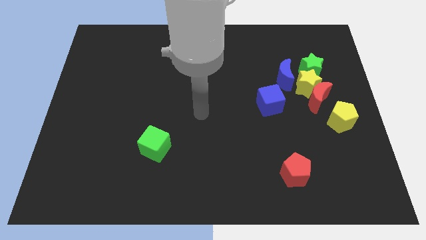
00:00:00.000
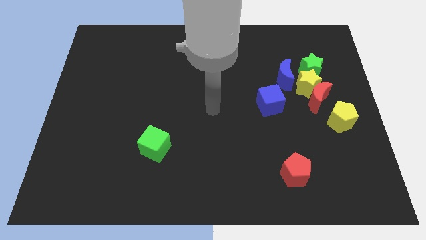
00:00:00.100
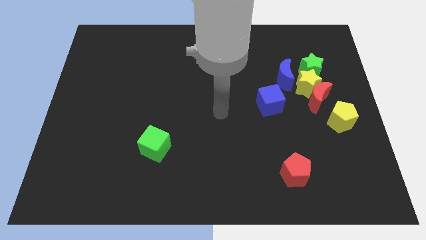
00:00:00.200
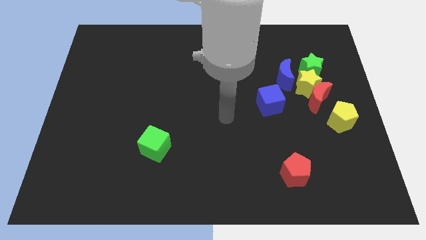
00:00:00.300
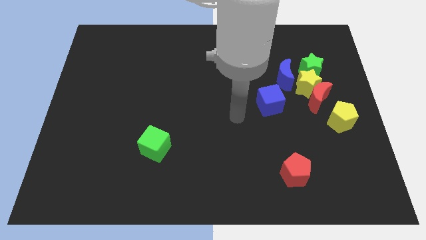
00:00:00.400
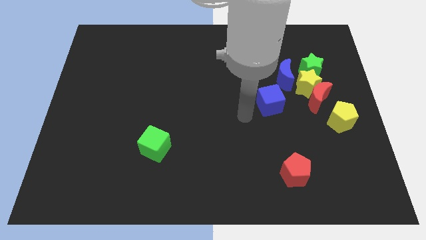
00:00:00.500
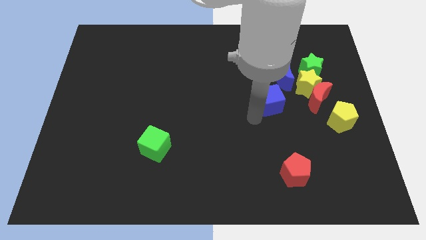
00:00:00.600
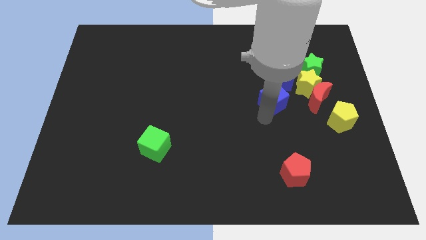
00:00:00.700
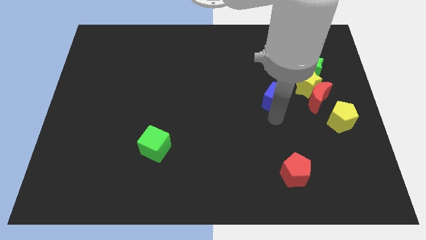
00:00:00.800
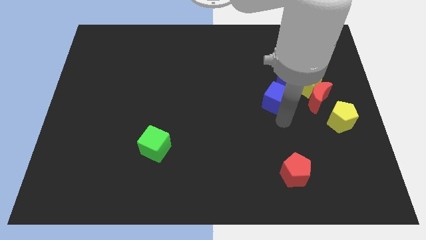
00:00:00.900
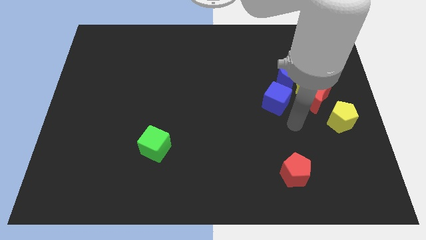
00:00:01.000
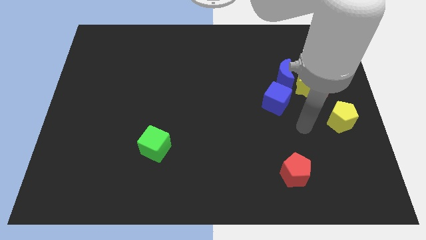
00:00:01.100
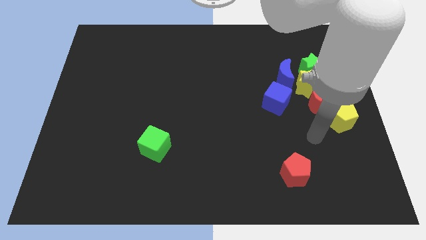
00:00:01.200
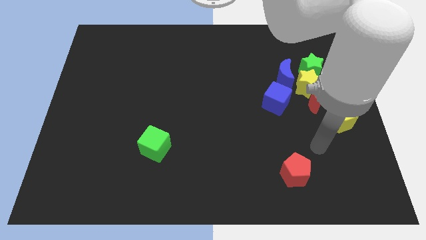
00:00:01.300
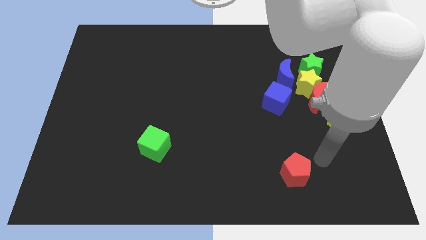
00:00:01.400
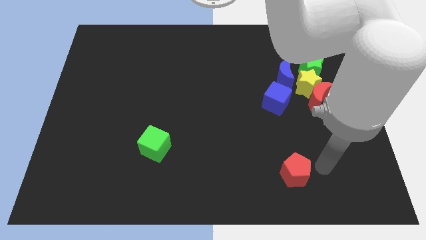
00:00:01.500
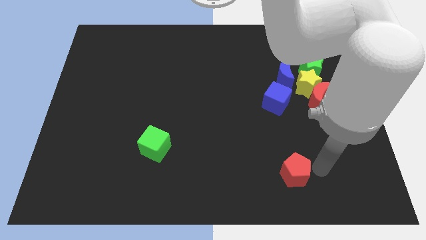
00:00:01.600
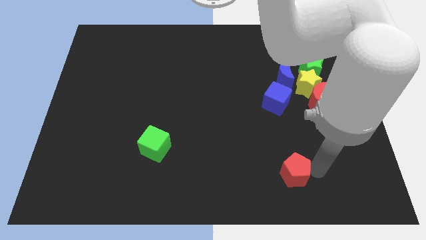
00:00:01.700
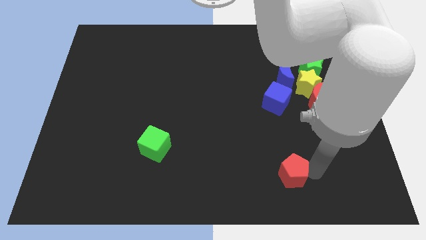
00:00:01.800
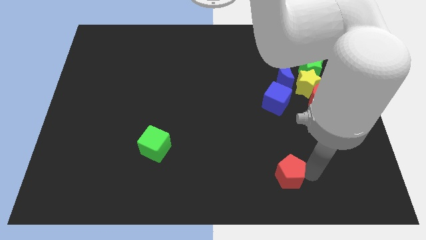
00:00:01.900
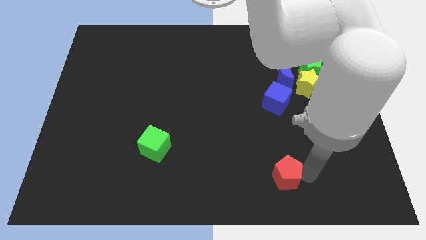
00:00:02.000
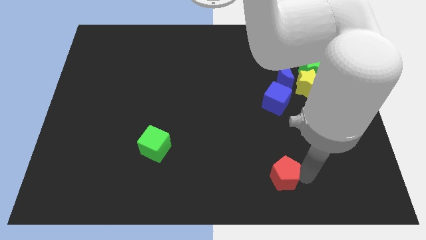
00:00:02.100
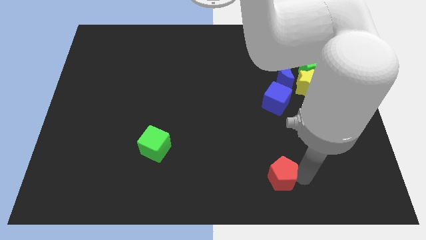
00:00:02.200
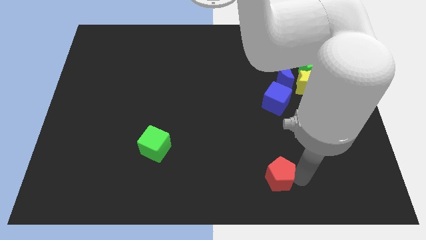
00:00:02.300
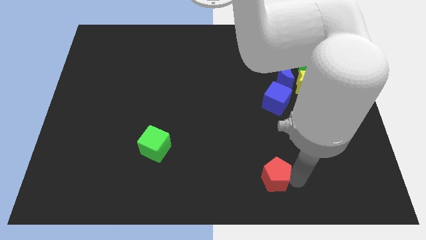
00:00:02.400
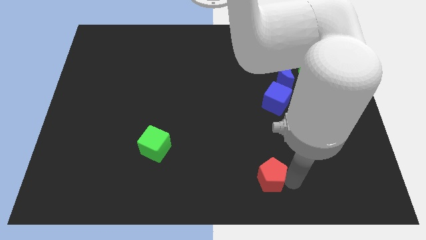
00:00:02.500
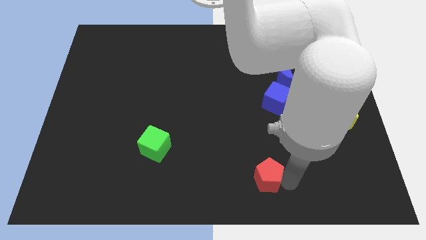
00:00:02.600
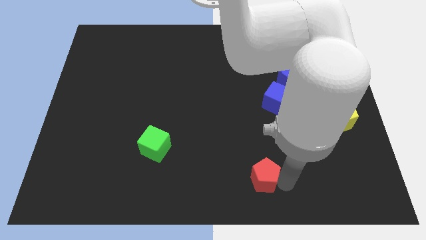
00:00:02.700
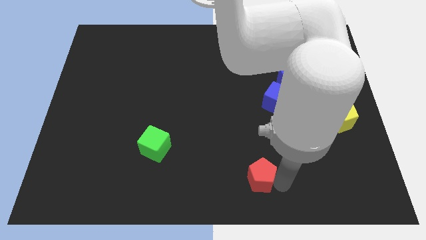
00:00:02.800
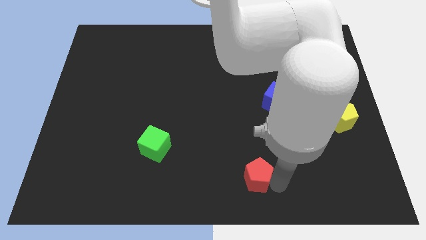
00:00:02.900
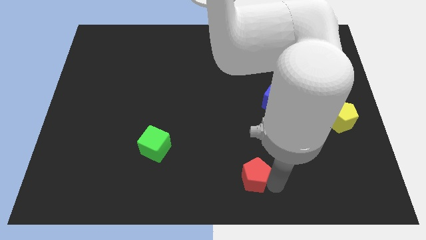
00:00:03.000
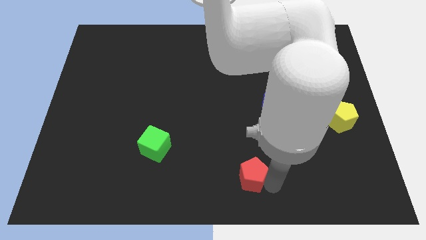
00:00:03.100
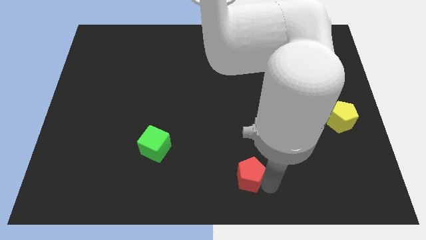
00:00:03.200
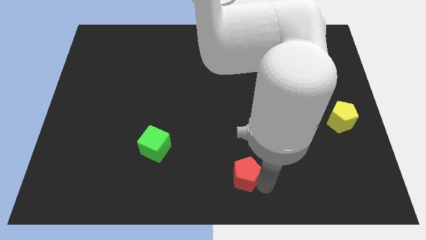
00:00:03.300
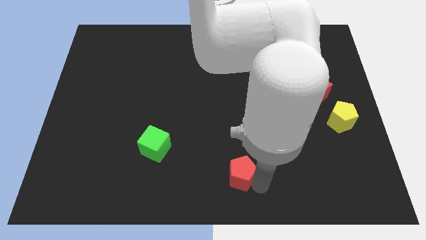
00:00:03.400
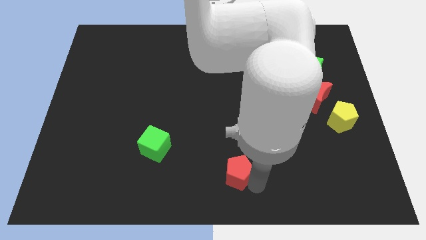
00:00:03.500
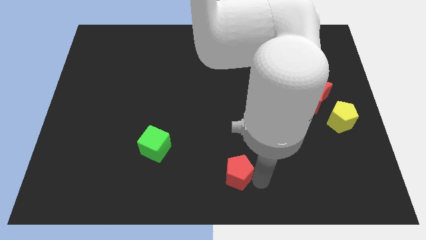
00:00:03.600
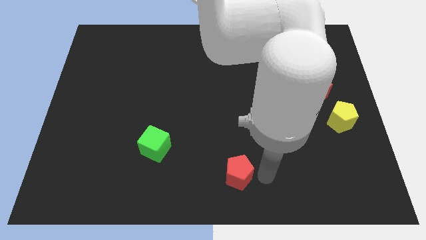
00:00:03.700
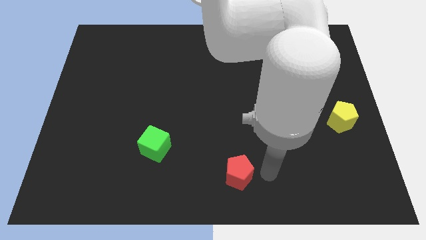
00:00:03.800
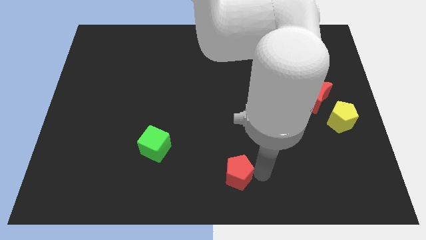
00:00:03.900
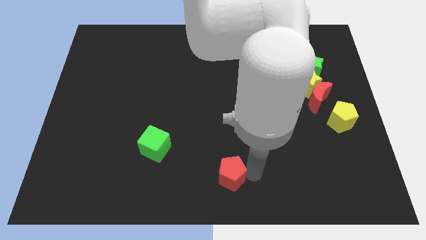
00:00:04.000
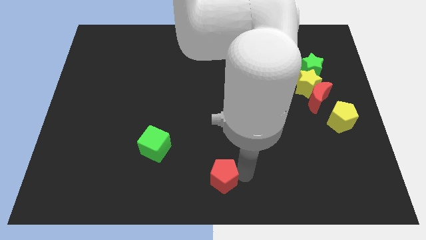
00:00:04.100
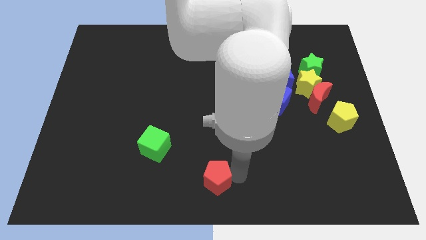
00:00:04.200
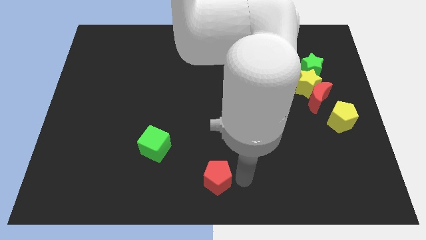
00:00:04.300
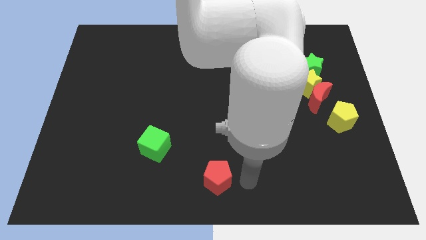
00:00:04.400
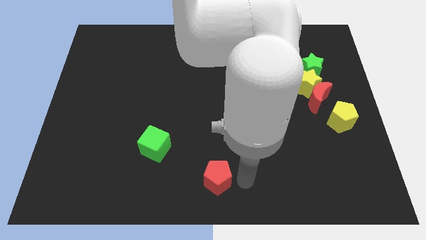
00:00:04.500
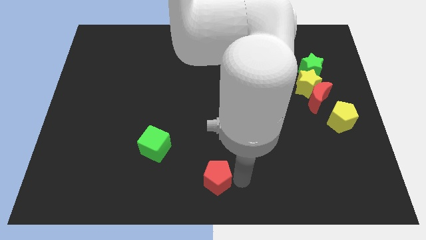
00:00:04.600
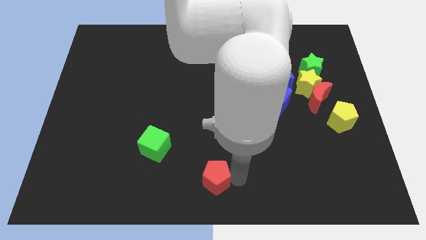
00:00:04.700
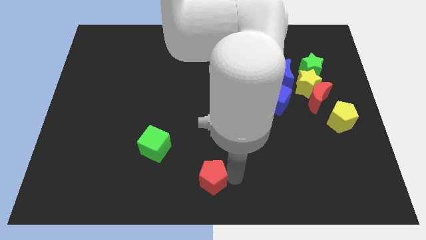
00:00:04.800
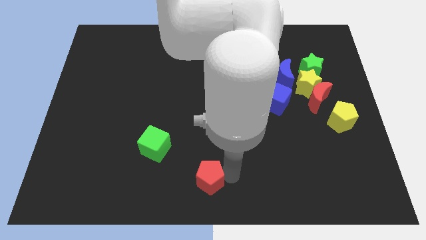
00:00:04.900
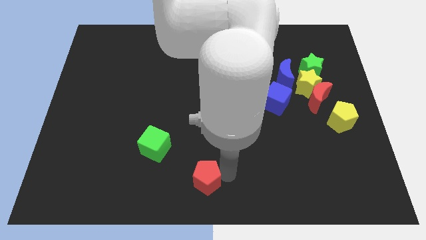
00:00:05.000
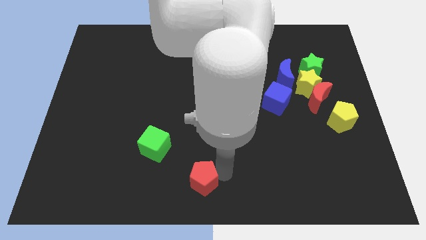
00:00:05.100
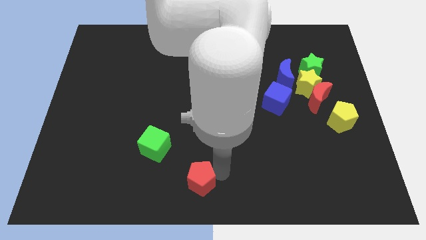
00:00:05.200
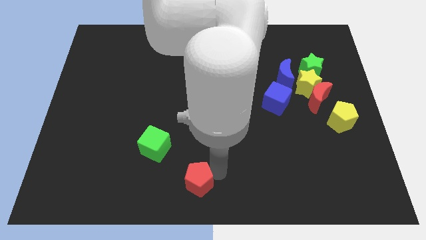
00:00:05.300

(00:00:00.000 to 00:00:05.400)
move the red pentagon to the left

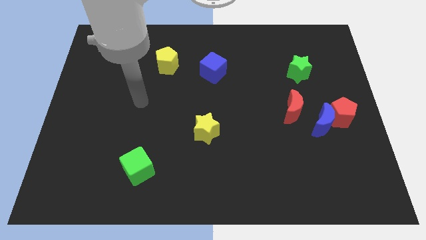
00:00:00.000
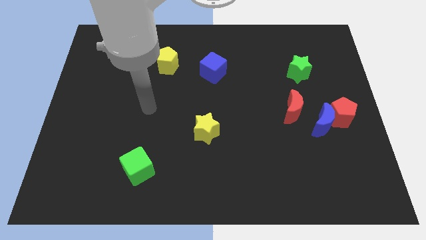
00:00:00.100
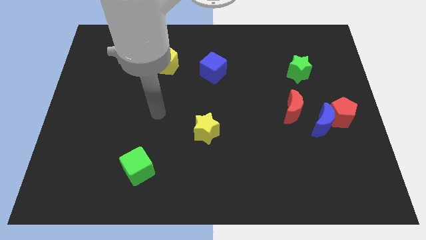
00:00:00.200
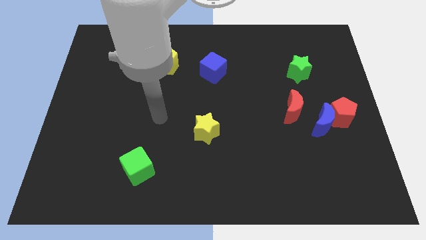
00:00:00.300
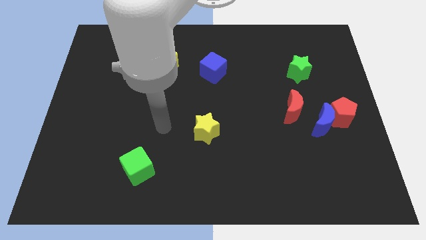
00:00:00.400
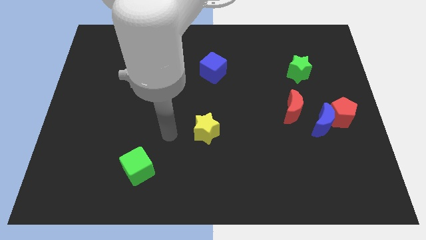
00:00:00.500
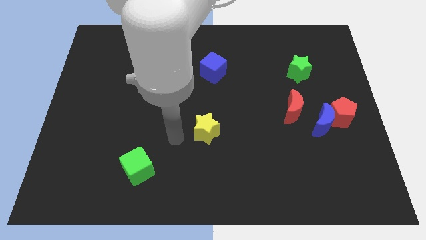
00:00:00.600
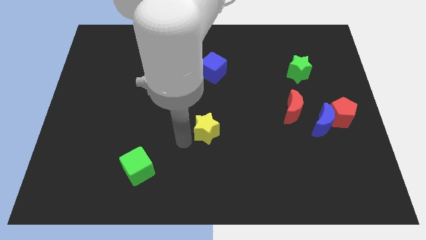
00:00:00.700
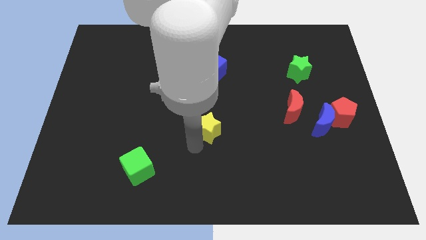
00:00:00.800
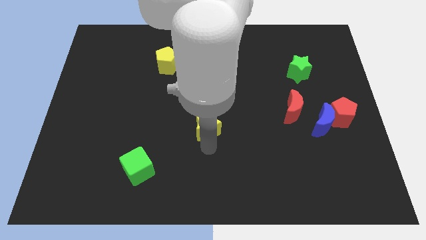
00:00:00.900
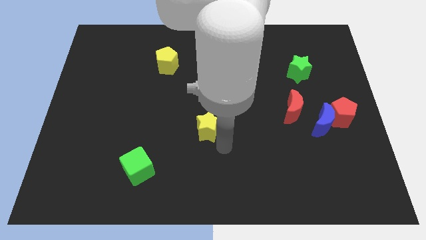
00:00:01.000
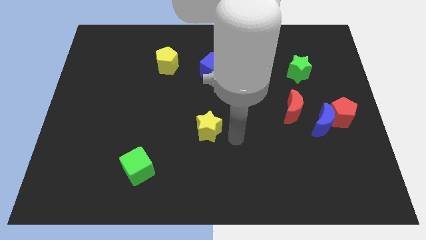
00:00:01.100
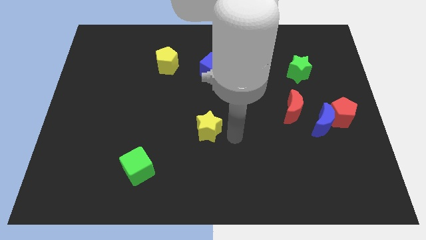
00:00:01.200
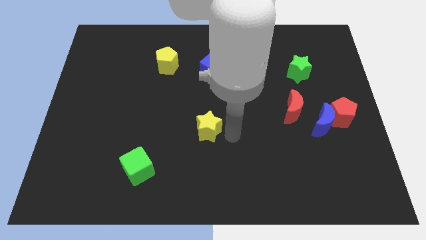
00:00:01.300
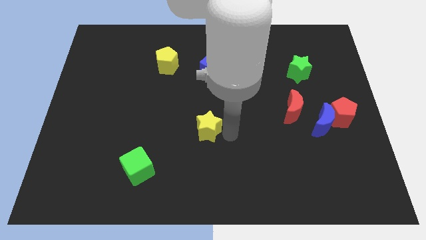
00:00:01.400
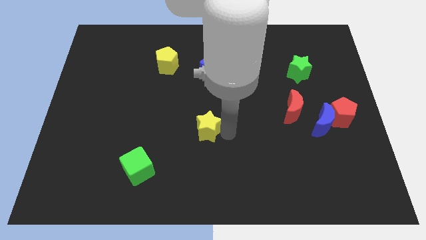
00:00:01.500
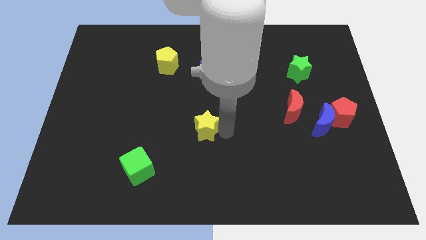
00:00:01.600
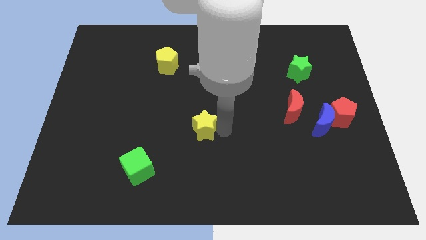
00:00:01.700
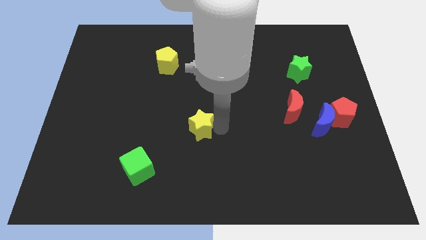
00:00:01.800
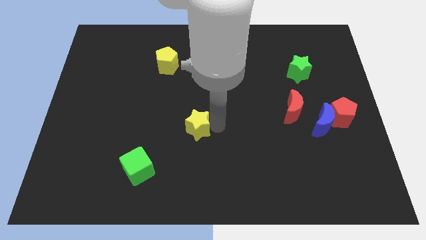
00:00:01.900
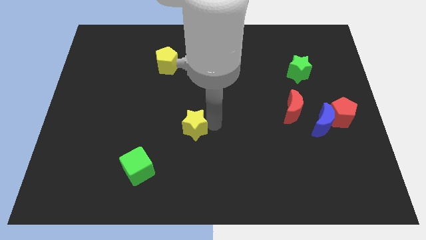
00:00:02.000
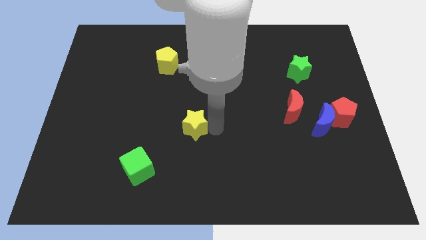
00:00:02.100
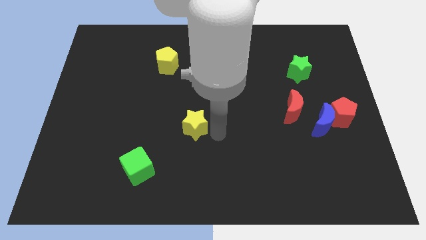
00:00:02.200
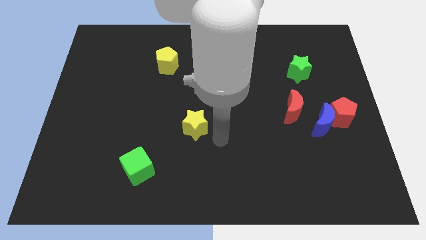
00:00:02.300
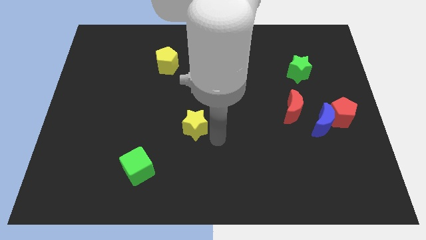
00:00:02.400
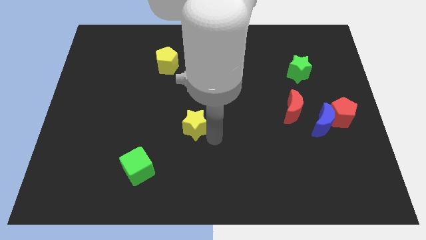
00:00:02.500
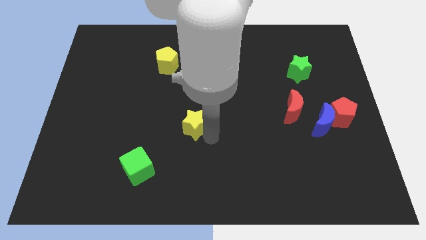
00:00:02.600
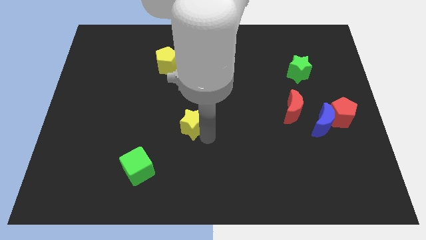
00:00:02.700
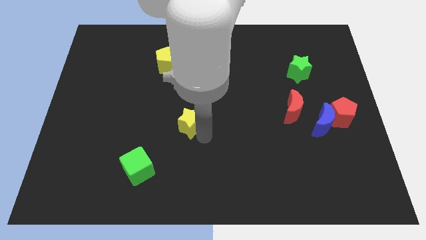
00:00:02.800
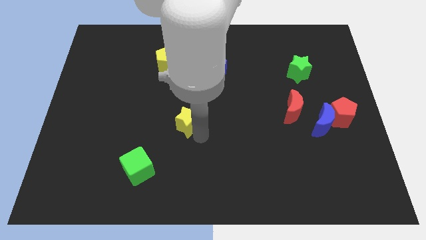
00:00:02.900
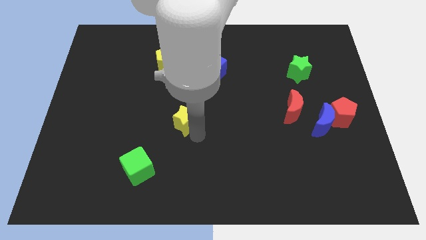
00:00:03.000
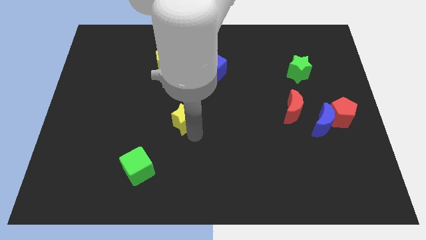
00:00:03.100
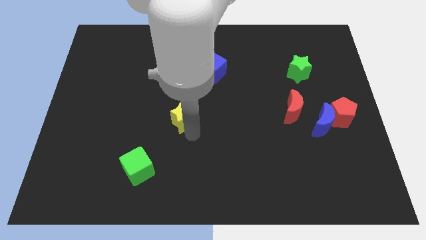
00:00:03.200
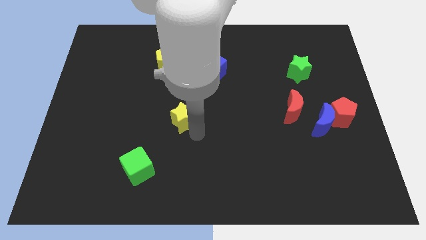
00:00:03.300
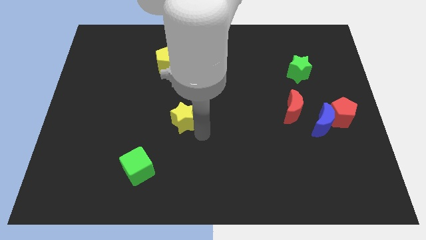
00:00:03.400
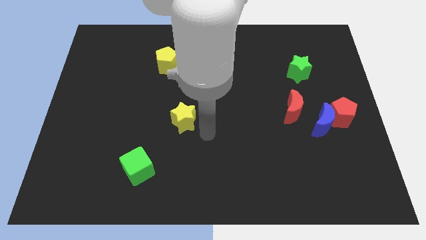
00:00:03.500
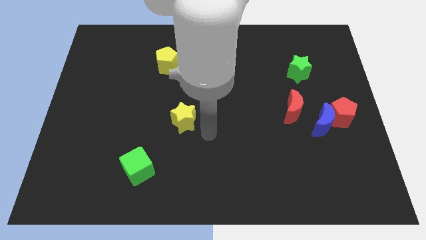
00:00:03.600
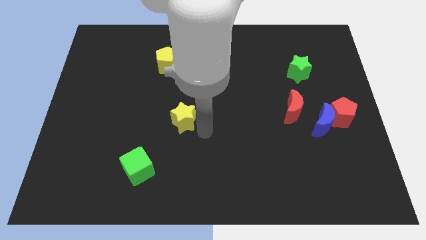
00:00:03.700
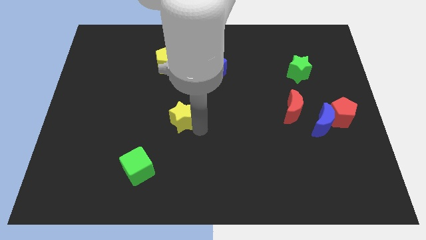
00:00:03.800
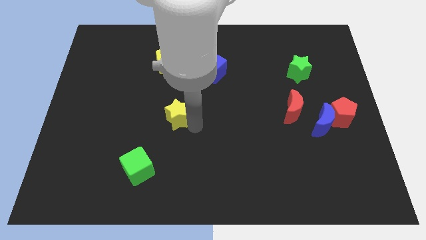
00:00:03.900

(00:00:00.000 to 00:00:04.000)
slide the yellow star up and then to the left a bit
